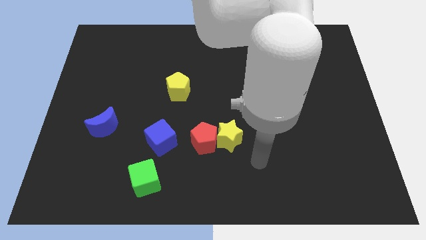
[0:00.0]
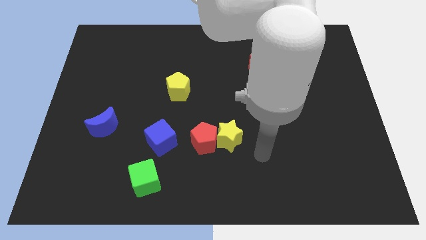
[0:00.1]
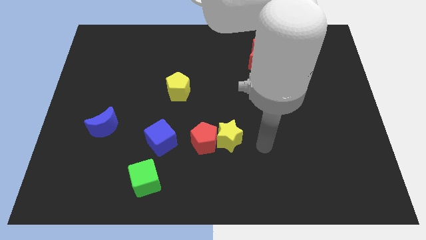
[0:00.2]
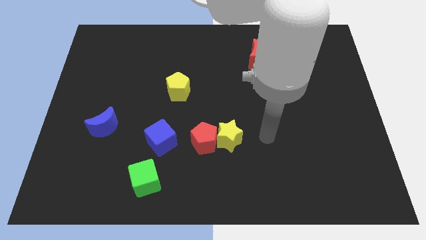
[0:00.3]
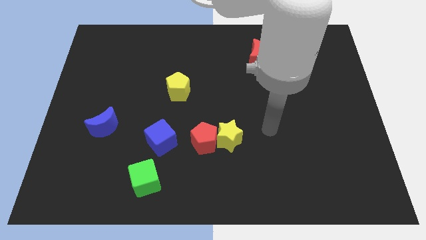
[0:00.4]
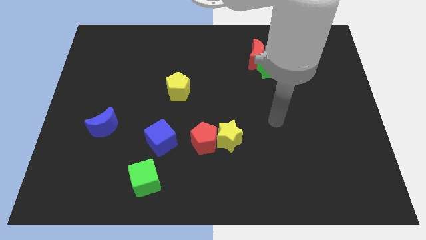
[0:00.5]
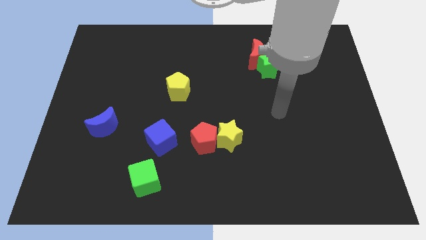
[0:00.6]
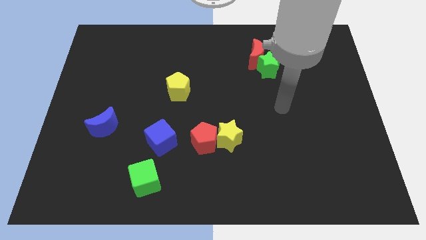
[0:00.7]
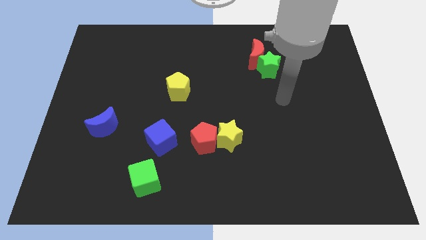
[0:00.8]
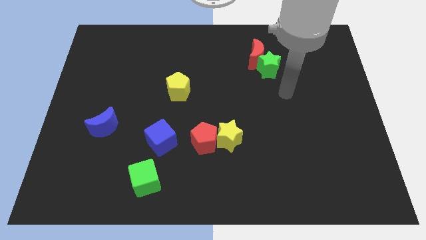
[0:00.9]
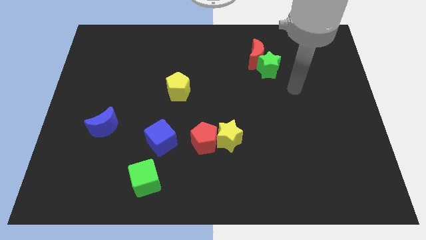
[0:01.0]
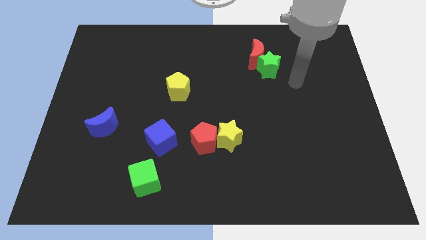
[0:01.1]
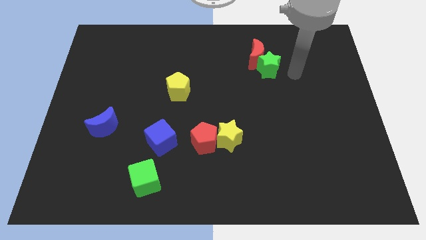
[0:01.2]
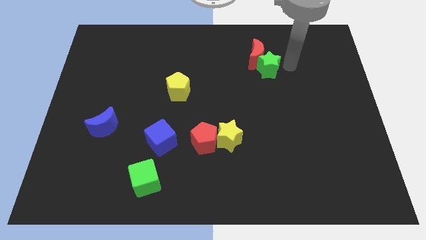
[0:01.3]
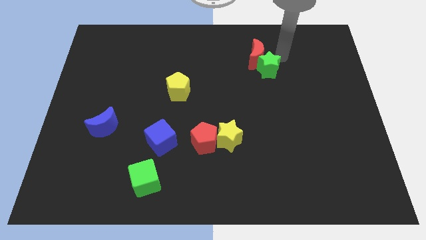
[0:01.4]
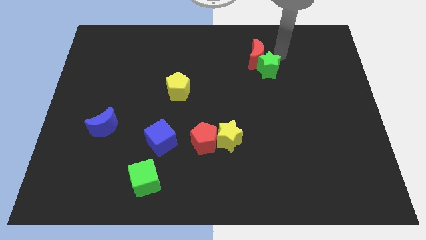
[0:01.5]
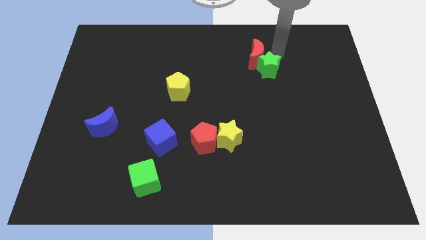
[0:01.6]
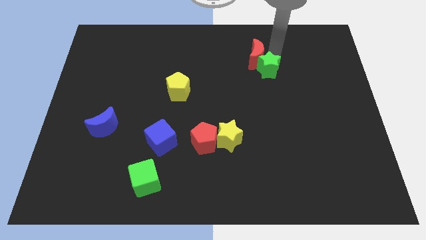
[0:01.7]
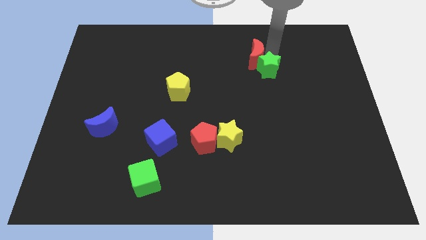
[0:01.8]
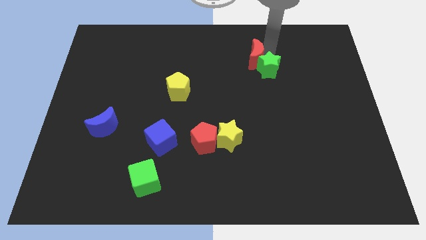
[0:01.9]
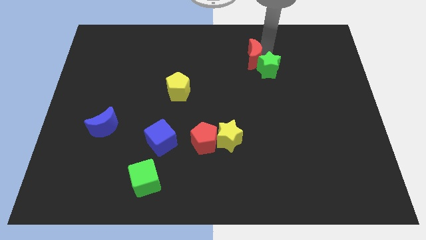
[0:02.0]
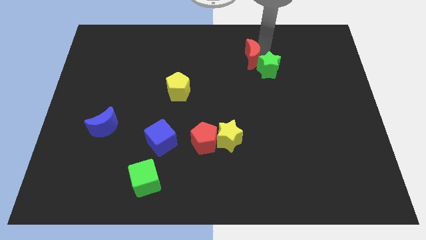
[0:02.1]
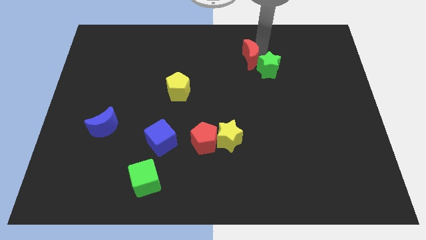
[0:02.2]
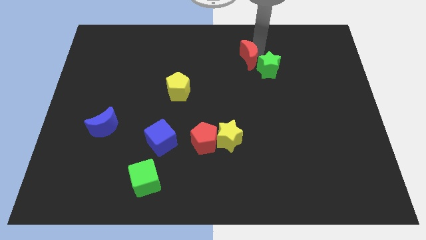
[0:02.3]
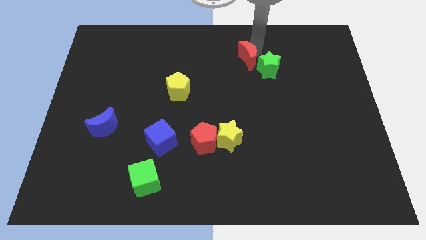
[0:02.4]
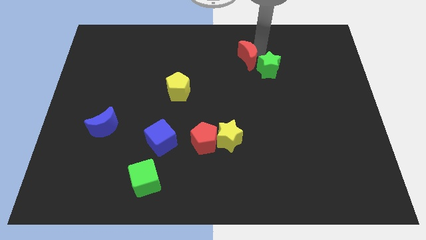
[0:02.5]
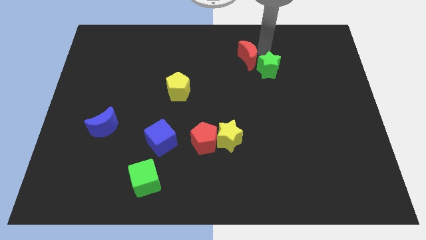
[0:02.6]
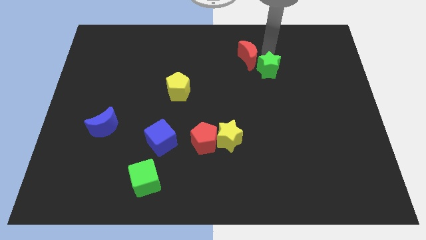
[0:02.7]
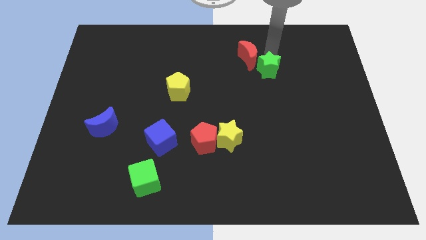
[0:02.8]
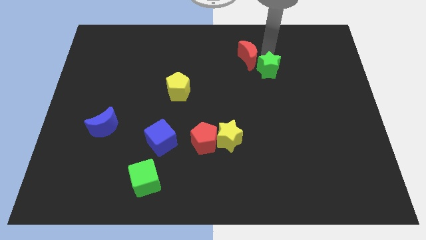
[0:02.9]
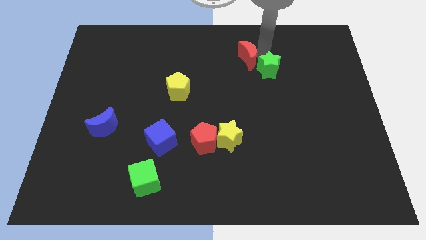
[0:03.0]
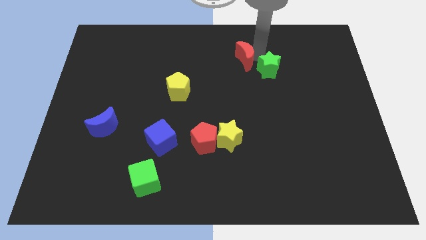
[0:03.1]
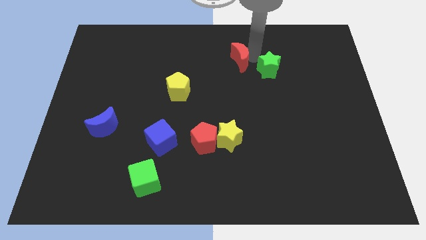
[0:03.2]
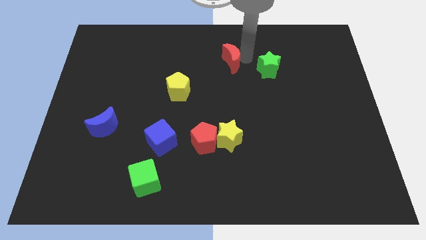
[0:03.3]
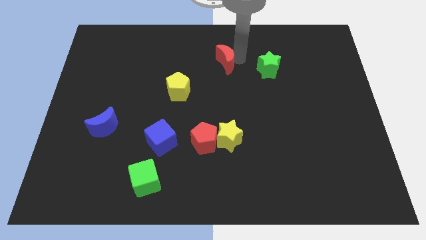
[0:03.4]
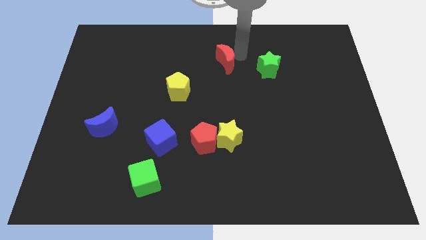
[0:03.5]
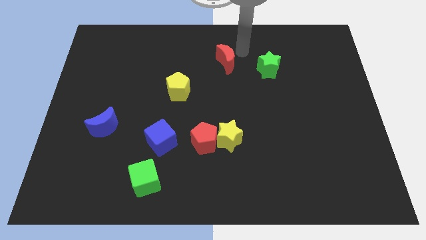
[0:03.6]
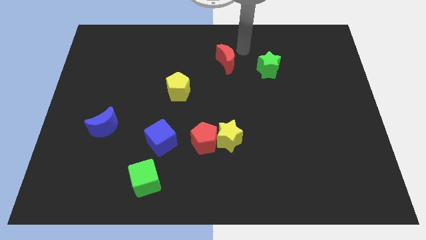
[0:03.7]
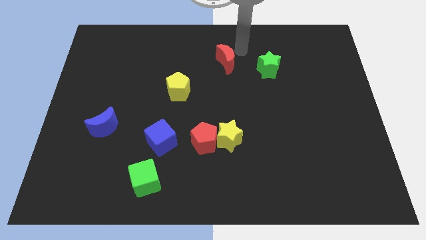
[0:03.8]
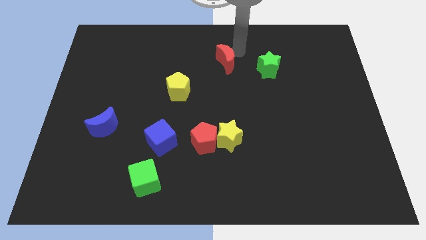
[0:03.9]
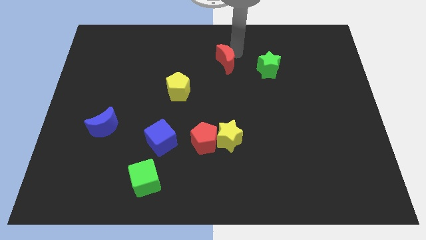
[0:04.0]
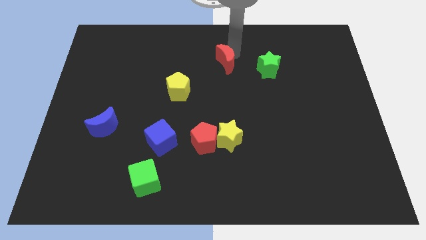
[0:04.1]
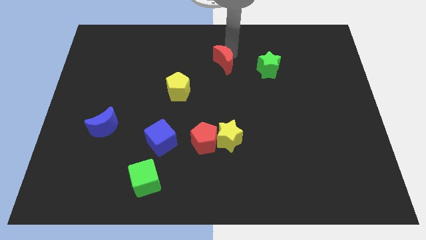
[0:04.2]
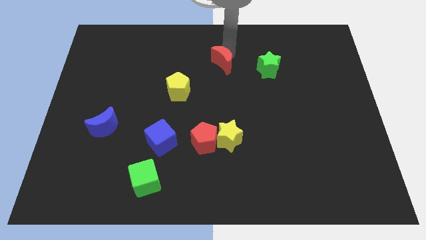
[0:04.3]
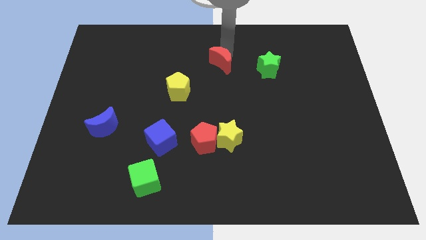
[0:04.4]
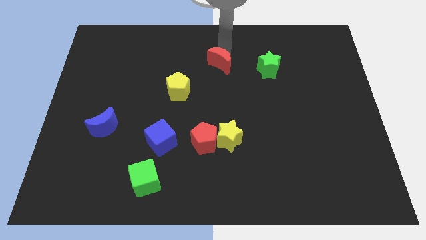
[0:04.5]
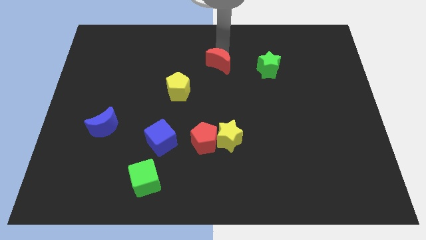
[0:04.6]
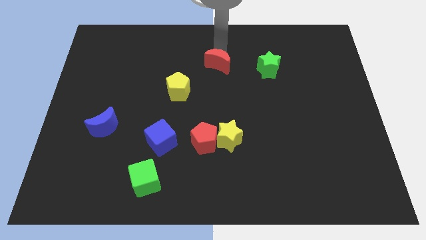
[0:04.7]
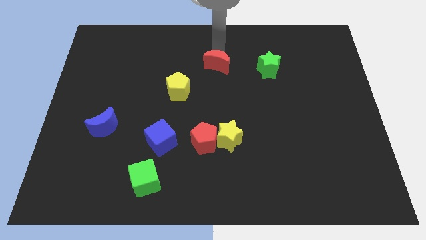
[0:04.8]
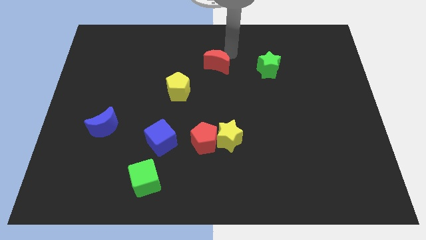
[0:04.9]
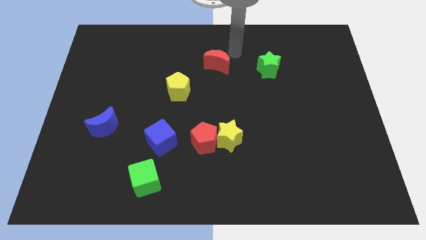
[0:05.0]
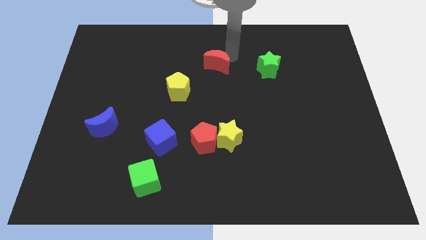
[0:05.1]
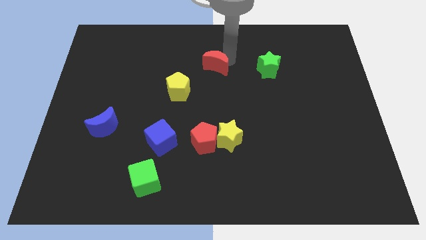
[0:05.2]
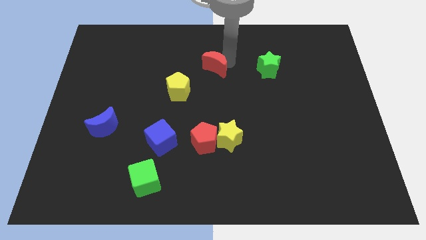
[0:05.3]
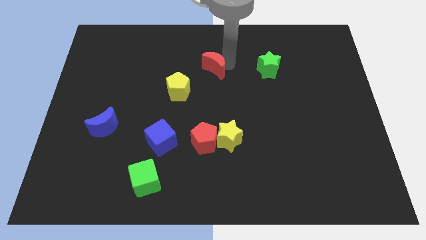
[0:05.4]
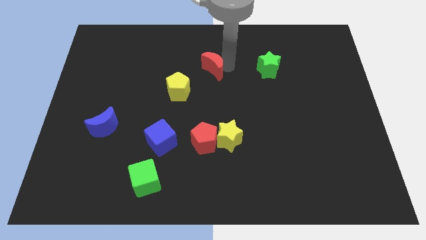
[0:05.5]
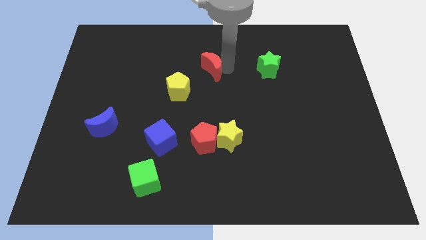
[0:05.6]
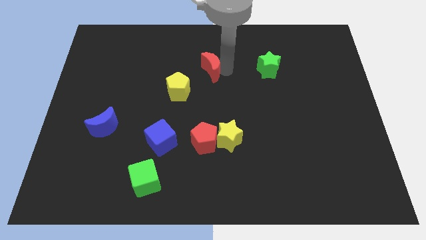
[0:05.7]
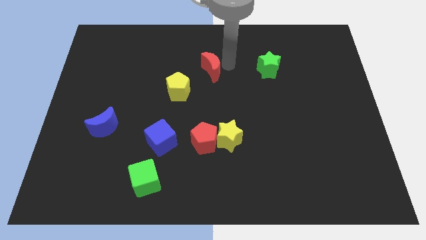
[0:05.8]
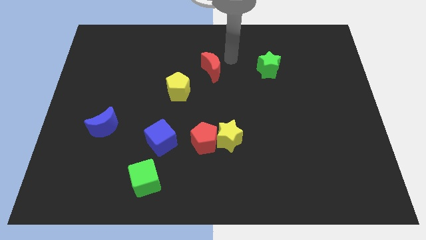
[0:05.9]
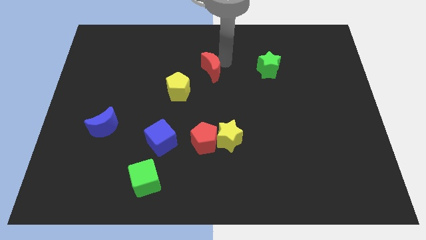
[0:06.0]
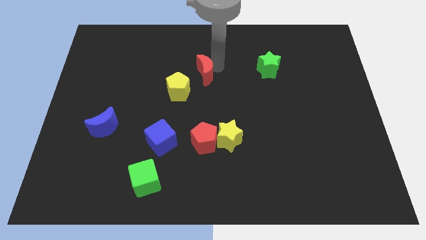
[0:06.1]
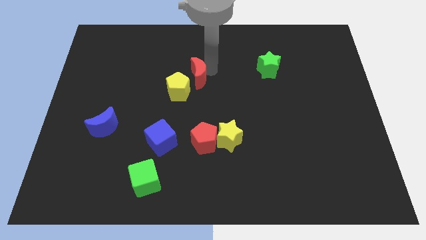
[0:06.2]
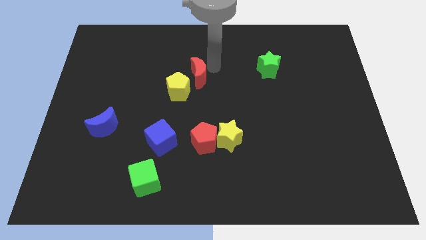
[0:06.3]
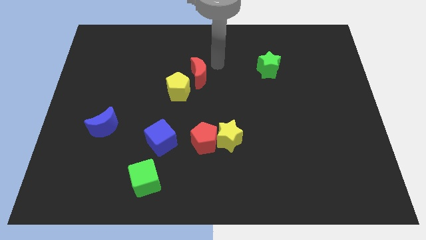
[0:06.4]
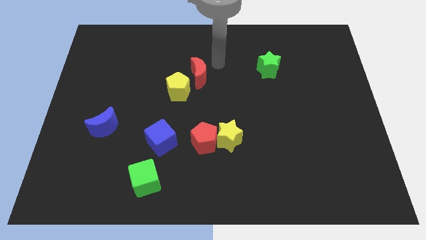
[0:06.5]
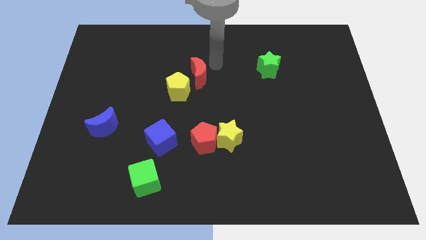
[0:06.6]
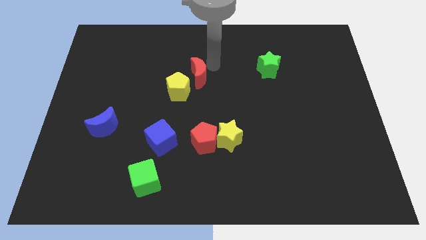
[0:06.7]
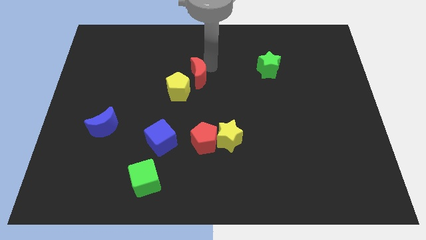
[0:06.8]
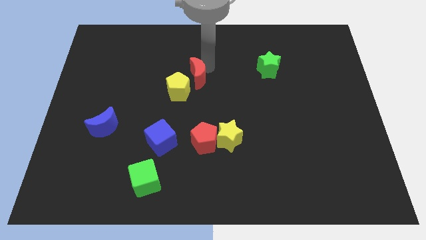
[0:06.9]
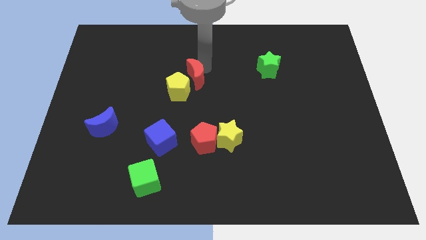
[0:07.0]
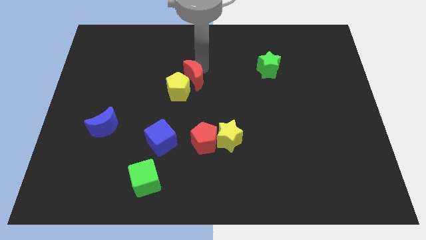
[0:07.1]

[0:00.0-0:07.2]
push the red moon towards the yellow pentagon

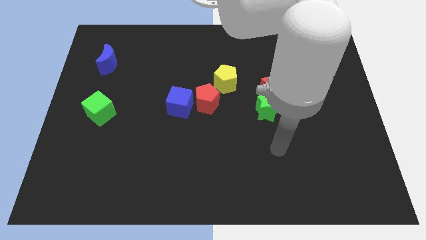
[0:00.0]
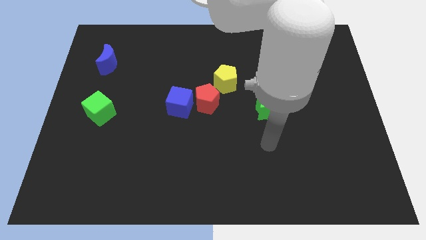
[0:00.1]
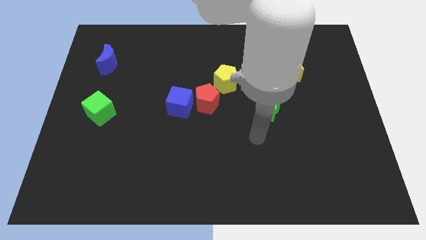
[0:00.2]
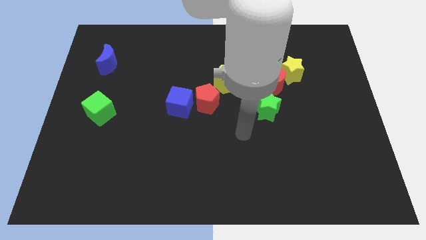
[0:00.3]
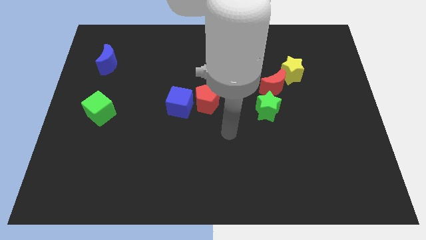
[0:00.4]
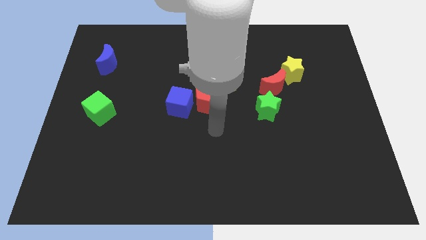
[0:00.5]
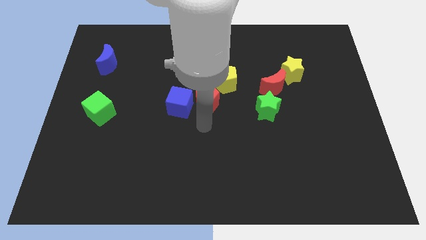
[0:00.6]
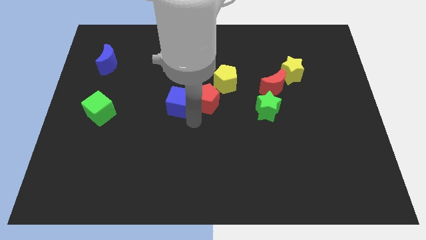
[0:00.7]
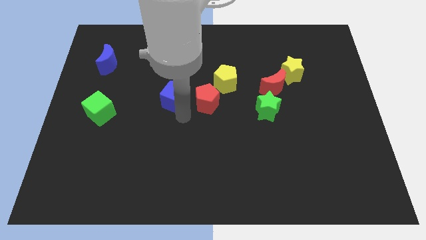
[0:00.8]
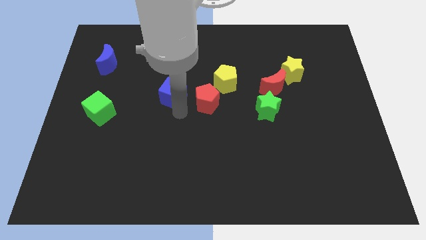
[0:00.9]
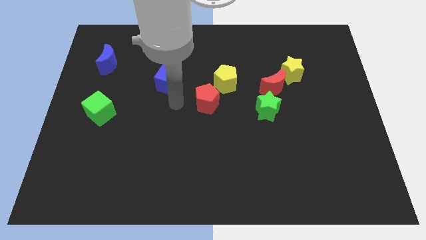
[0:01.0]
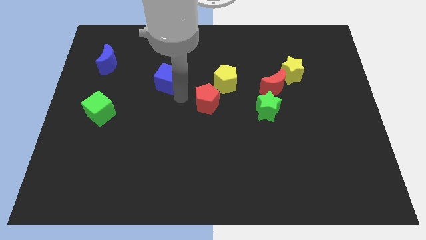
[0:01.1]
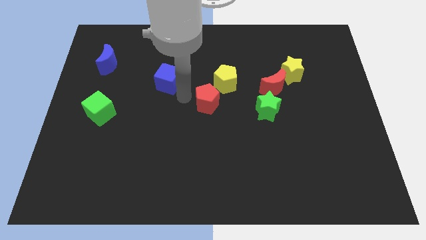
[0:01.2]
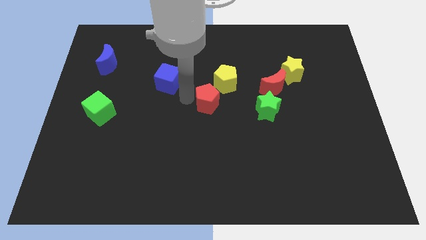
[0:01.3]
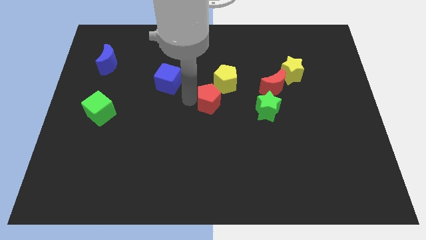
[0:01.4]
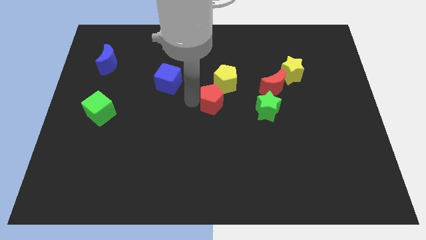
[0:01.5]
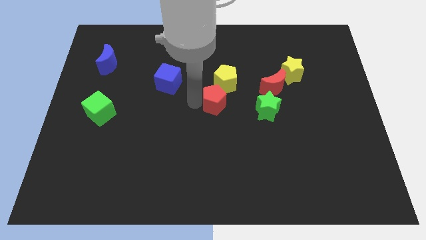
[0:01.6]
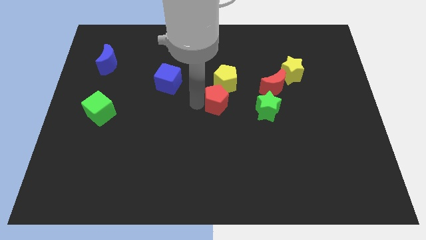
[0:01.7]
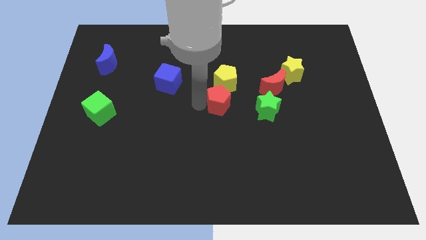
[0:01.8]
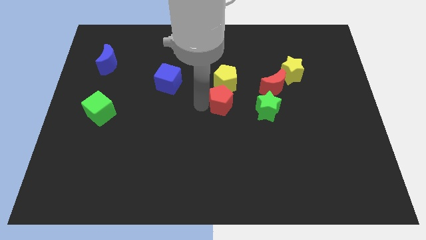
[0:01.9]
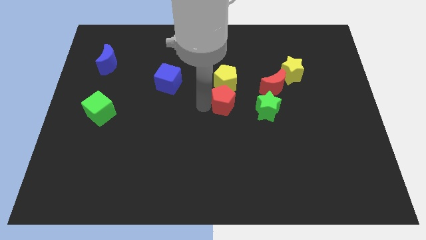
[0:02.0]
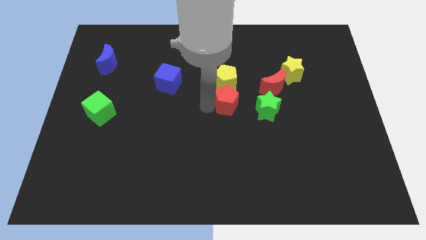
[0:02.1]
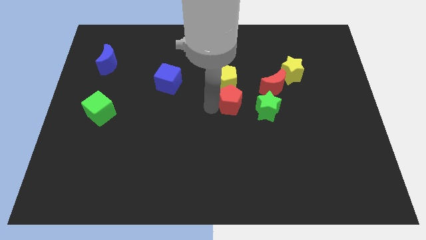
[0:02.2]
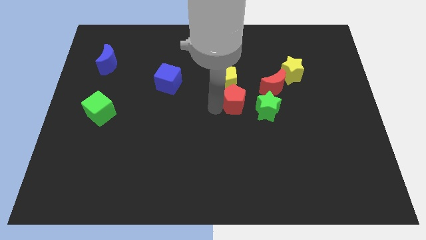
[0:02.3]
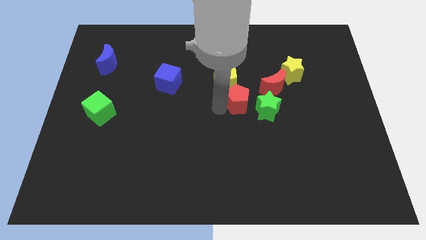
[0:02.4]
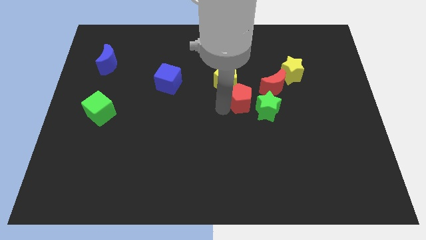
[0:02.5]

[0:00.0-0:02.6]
move the red pentagon next to the green star
